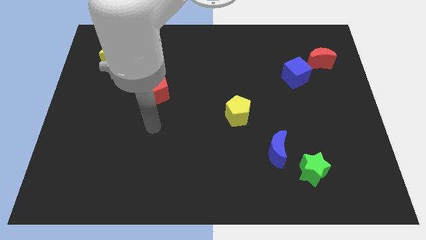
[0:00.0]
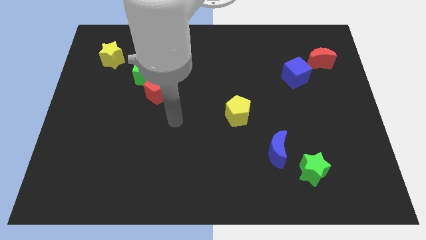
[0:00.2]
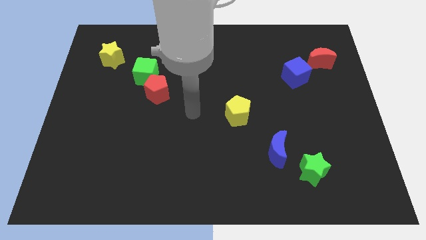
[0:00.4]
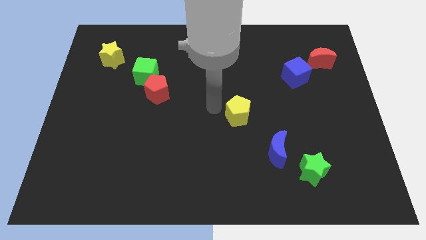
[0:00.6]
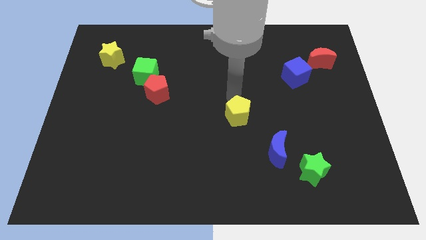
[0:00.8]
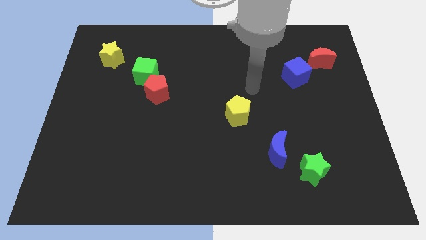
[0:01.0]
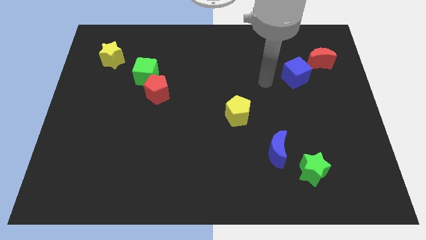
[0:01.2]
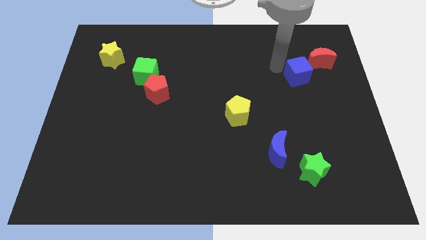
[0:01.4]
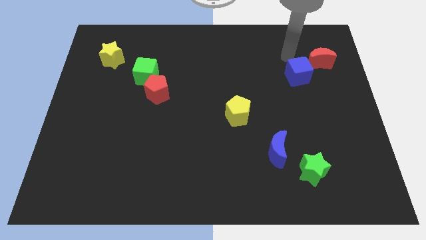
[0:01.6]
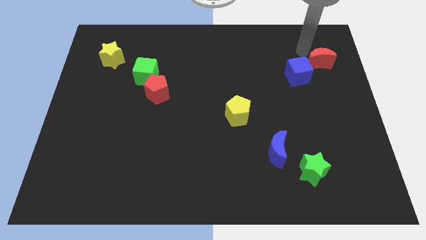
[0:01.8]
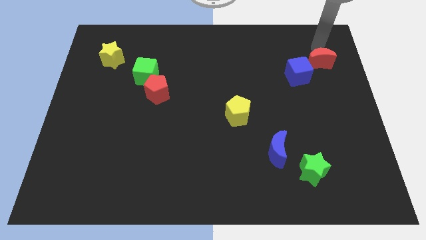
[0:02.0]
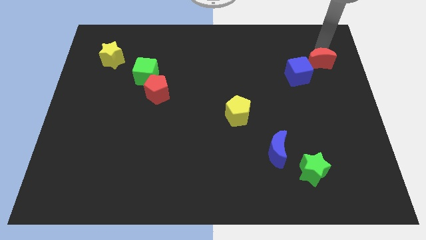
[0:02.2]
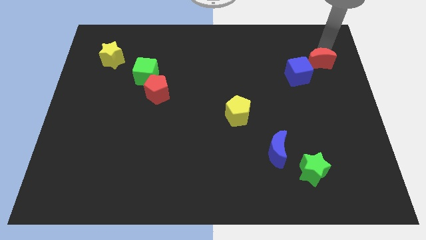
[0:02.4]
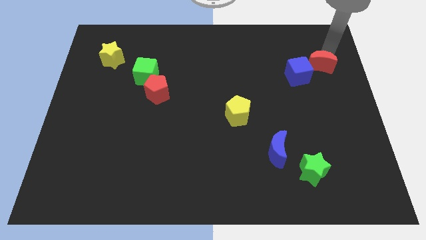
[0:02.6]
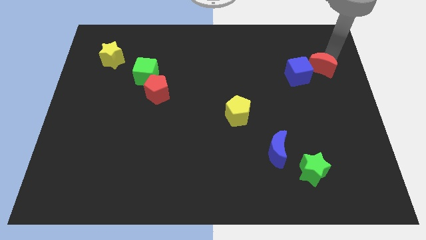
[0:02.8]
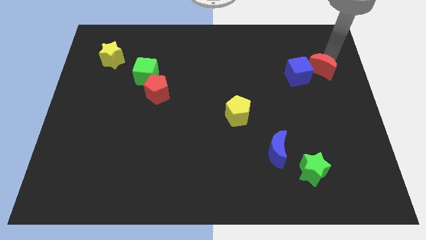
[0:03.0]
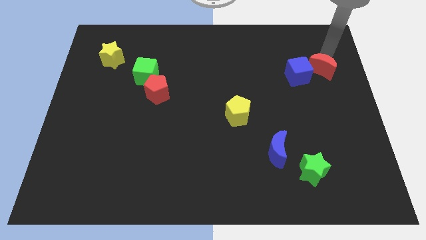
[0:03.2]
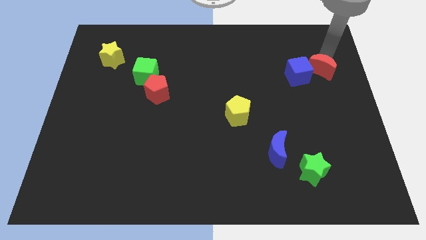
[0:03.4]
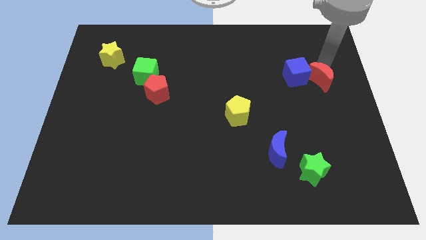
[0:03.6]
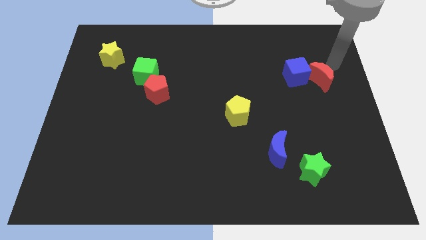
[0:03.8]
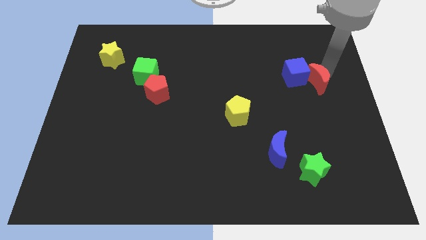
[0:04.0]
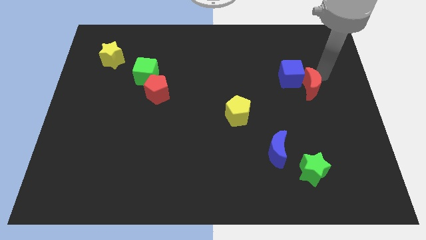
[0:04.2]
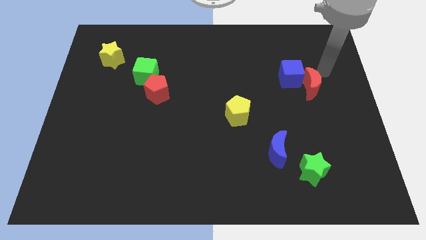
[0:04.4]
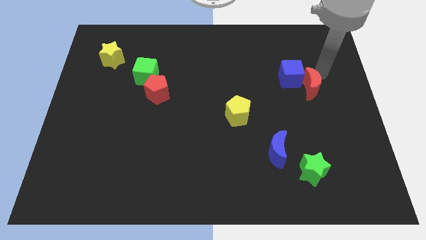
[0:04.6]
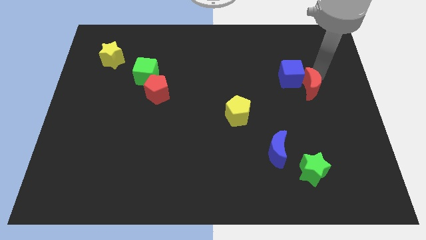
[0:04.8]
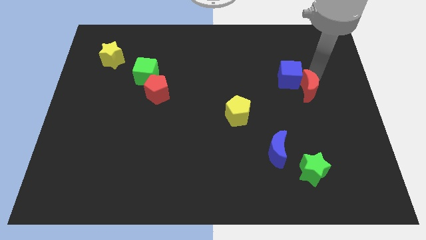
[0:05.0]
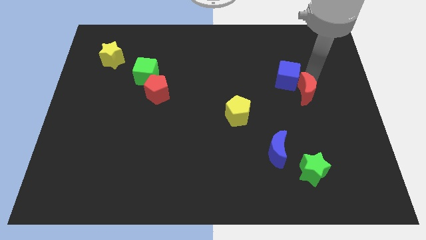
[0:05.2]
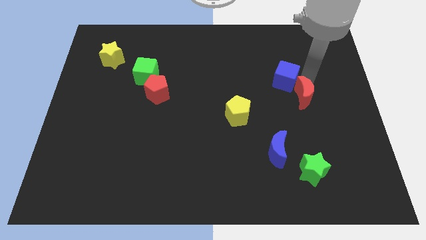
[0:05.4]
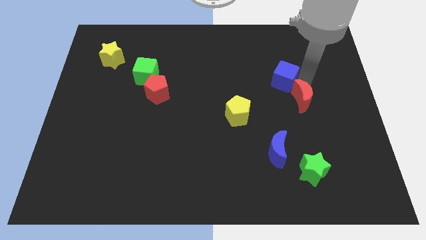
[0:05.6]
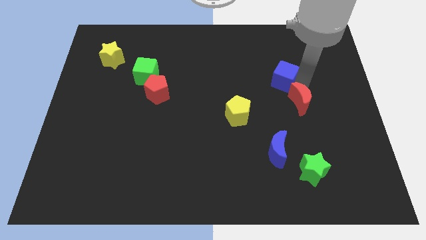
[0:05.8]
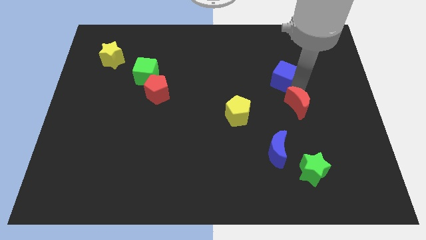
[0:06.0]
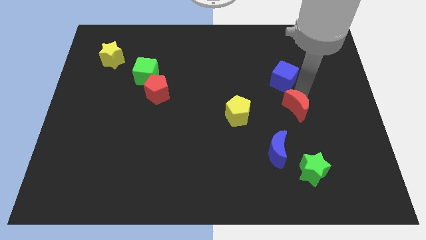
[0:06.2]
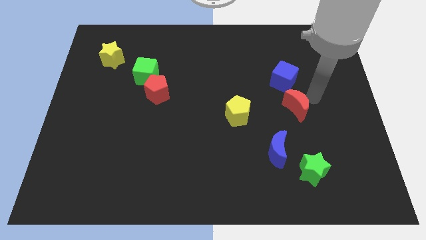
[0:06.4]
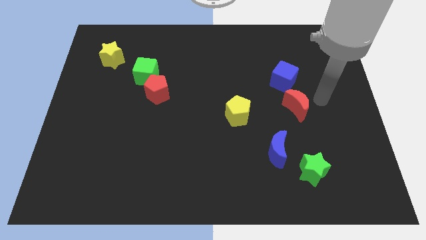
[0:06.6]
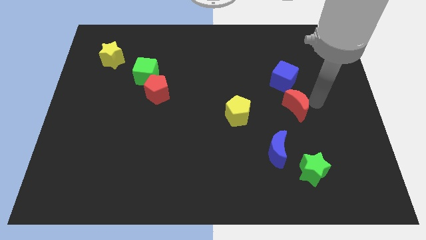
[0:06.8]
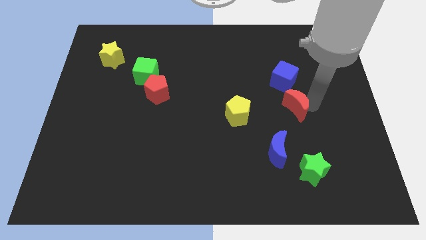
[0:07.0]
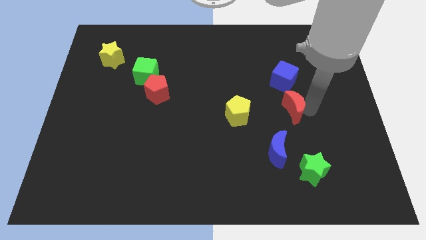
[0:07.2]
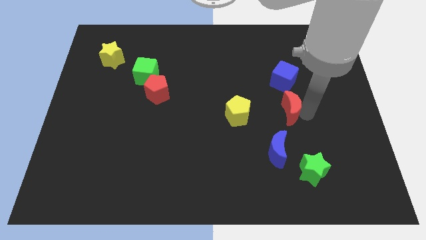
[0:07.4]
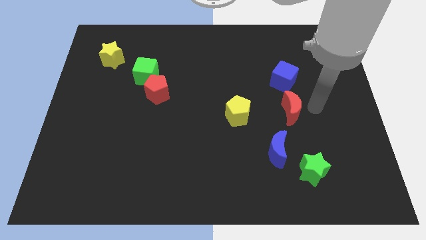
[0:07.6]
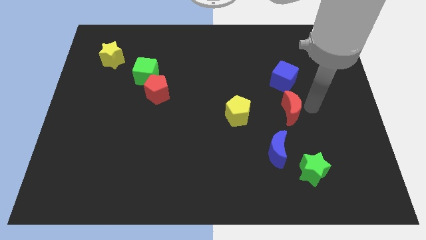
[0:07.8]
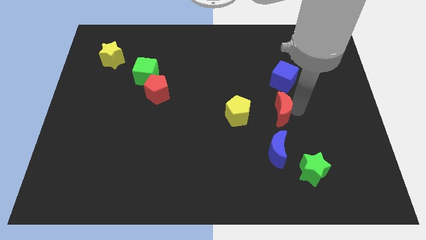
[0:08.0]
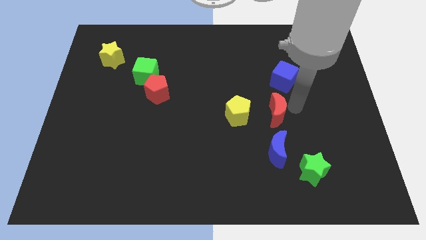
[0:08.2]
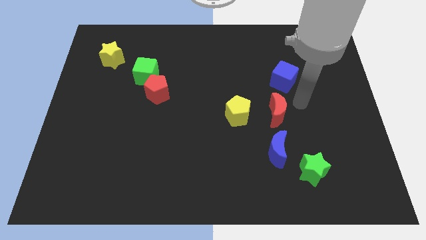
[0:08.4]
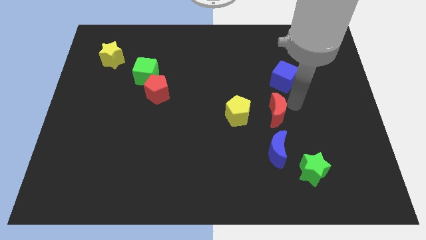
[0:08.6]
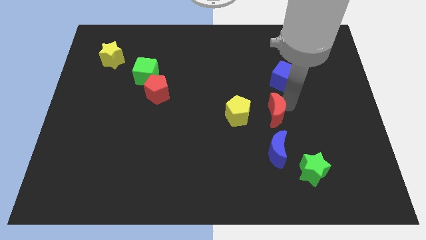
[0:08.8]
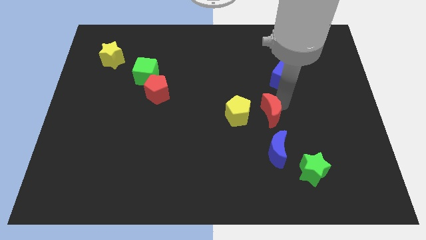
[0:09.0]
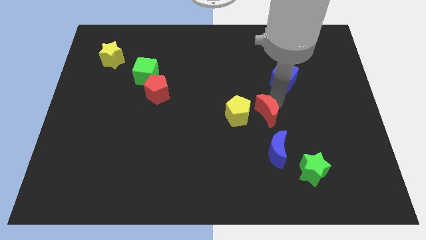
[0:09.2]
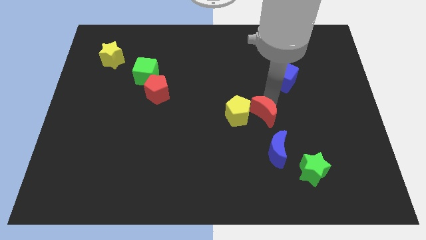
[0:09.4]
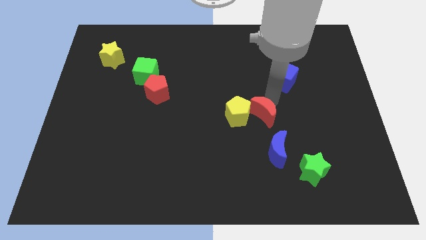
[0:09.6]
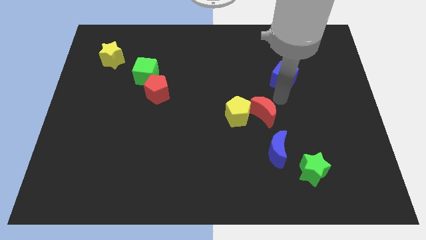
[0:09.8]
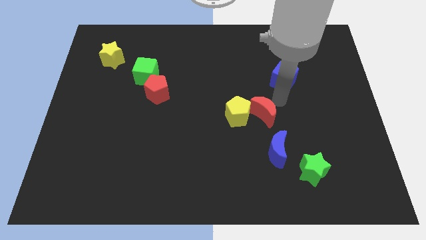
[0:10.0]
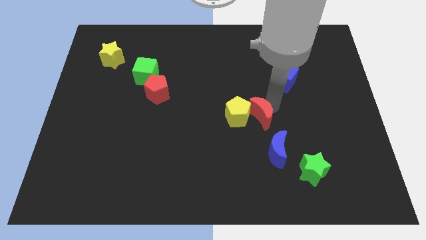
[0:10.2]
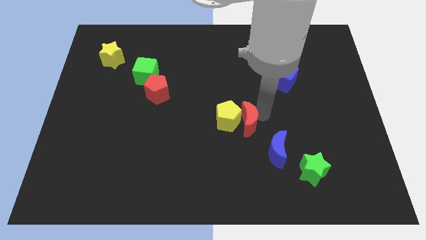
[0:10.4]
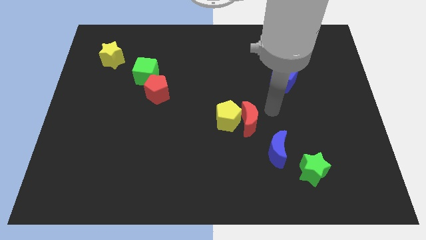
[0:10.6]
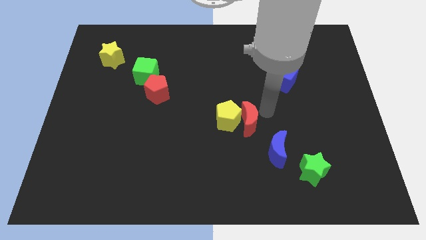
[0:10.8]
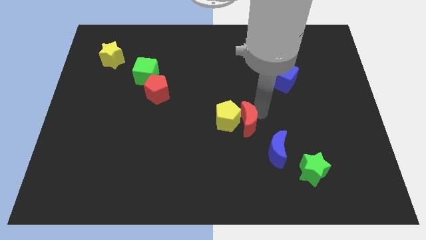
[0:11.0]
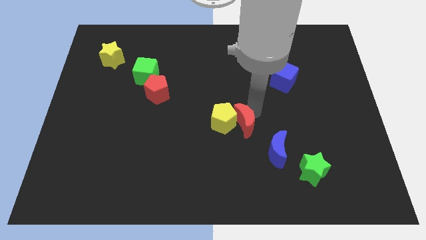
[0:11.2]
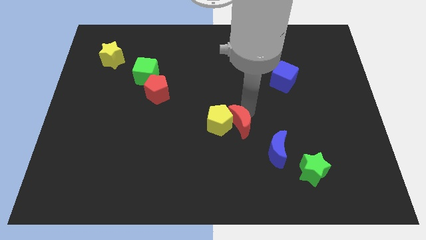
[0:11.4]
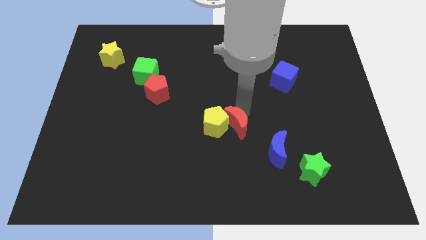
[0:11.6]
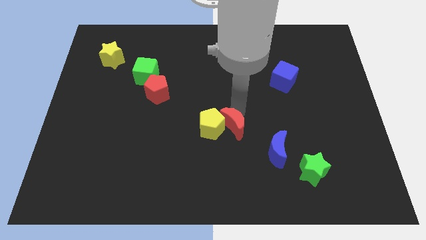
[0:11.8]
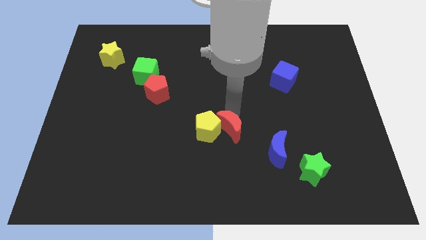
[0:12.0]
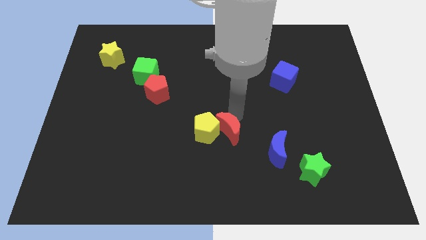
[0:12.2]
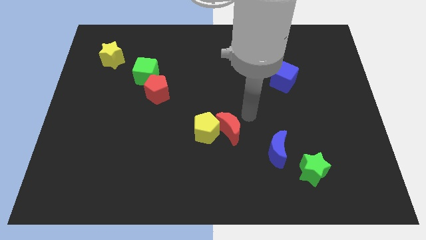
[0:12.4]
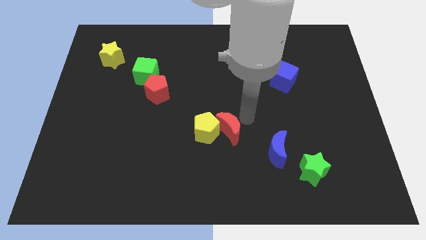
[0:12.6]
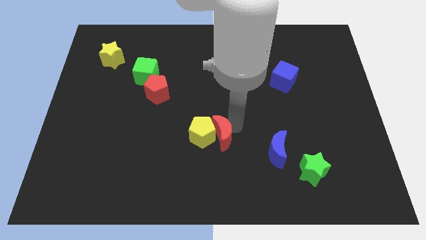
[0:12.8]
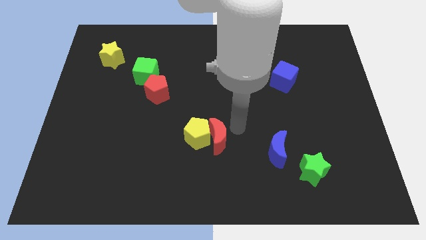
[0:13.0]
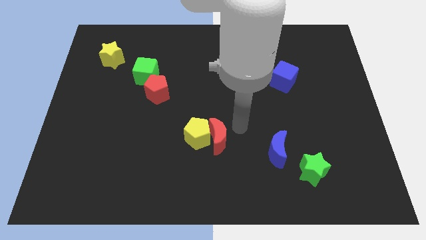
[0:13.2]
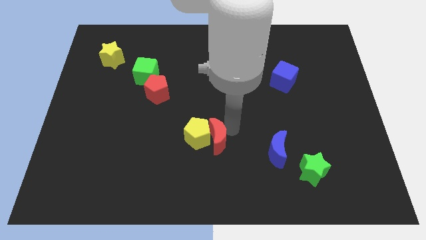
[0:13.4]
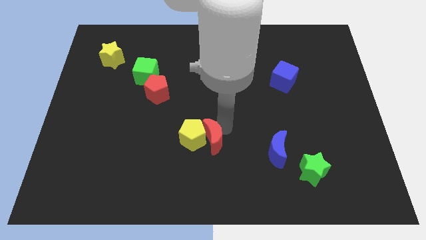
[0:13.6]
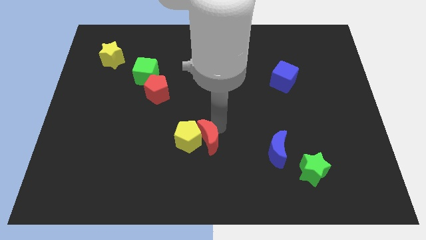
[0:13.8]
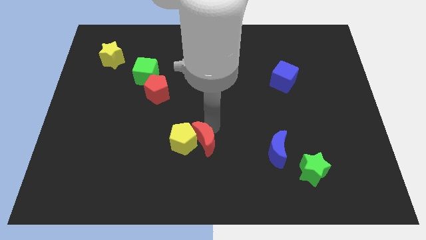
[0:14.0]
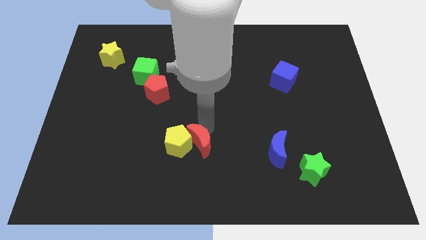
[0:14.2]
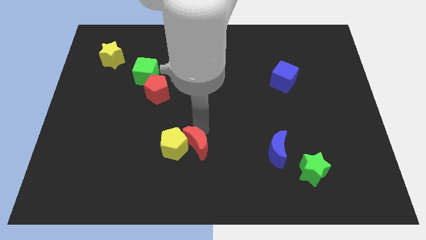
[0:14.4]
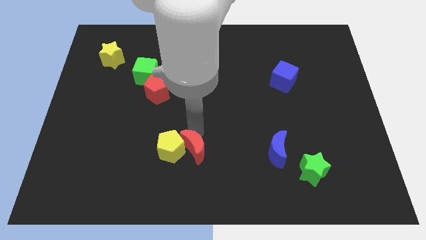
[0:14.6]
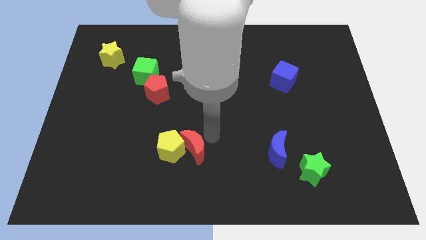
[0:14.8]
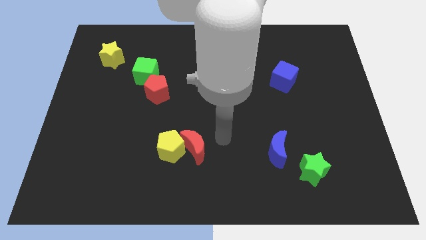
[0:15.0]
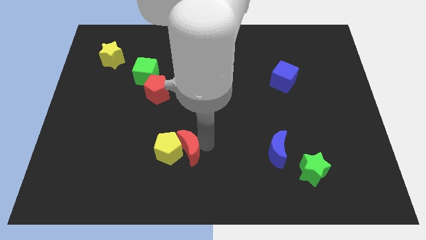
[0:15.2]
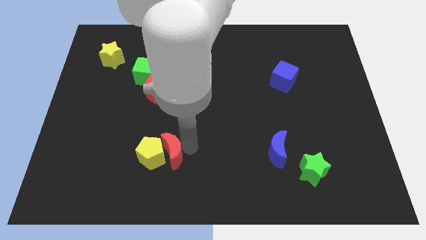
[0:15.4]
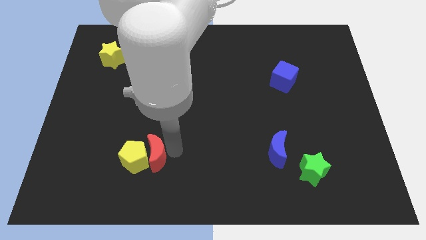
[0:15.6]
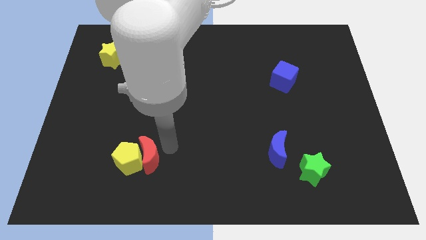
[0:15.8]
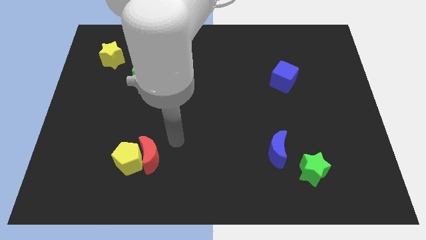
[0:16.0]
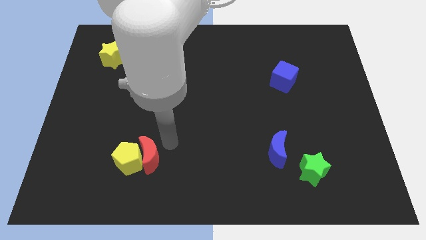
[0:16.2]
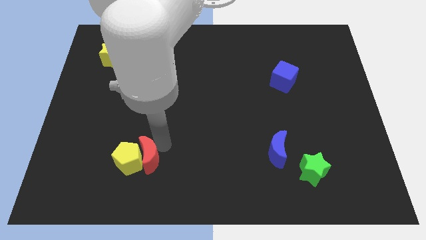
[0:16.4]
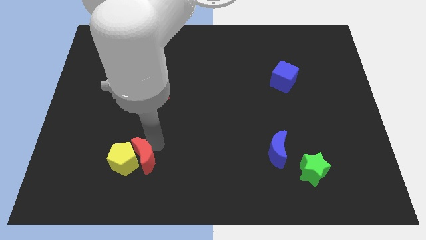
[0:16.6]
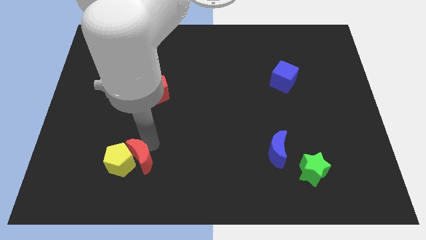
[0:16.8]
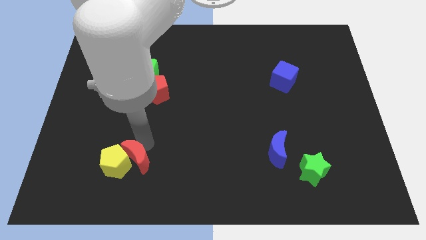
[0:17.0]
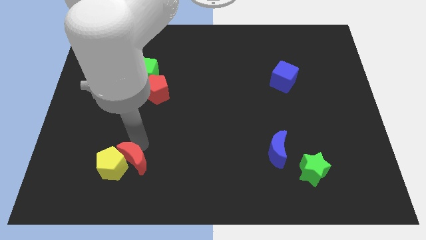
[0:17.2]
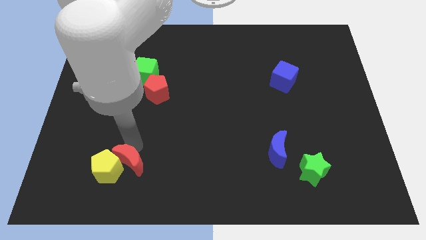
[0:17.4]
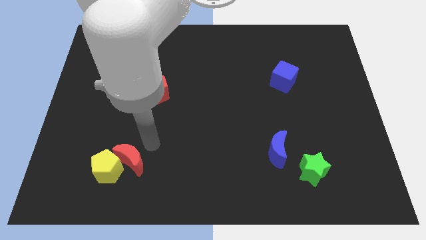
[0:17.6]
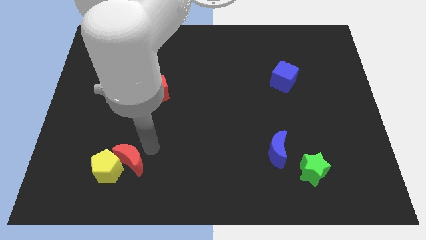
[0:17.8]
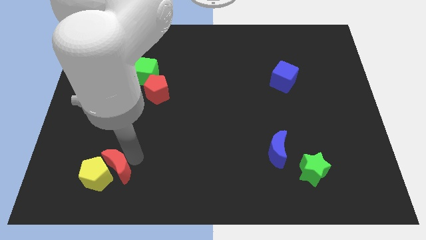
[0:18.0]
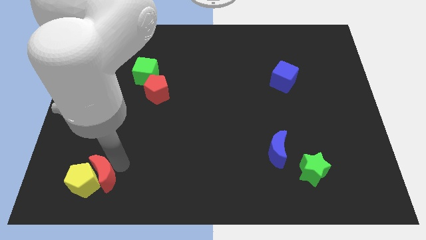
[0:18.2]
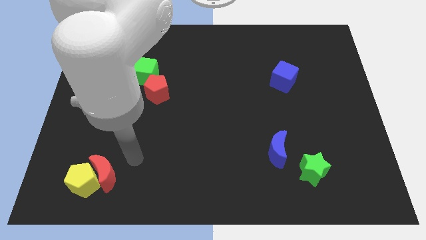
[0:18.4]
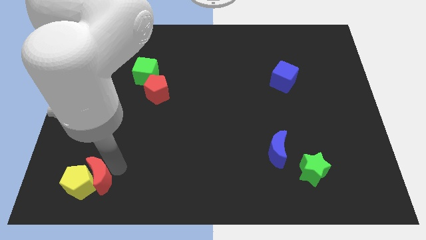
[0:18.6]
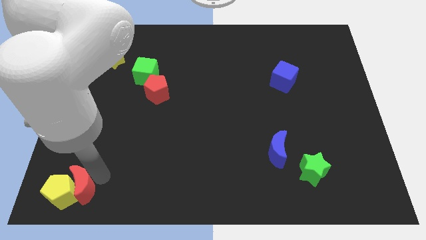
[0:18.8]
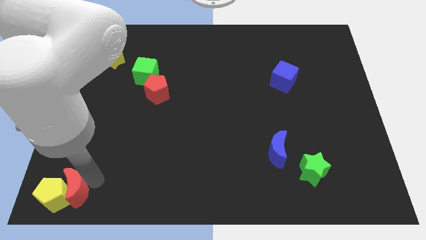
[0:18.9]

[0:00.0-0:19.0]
move the red moon to the lower left corner
